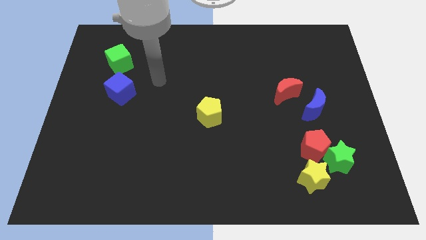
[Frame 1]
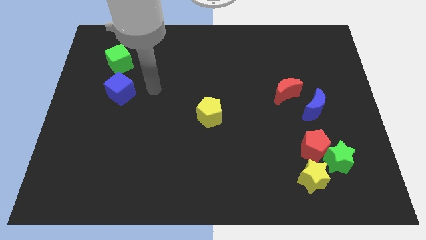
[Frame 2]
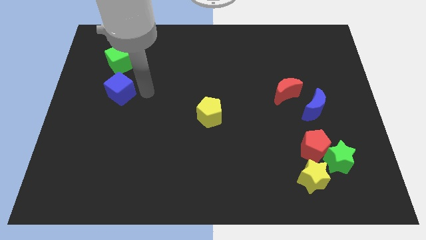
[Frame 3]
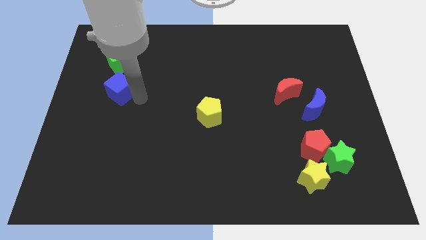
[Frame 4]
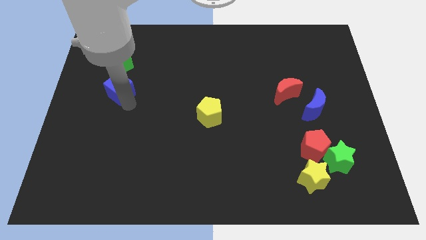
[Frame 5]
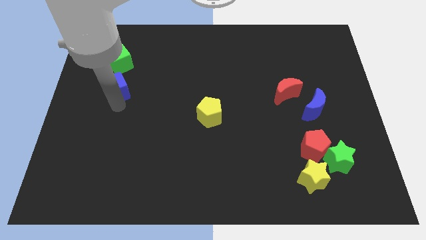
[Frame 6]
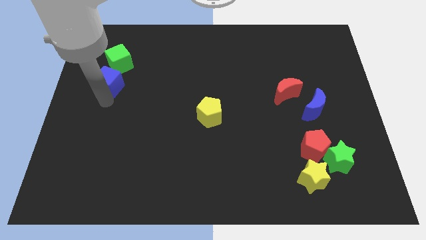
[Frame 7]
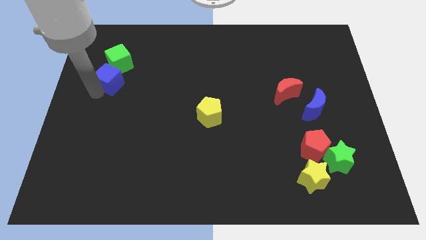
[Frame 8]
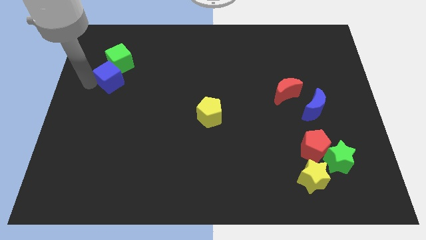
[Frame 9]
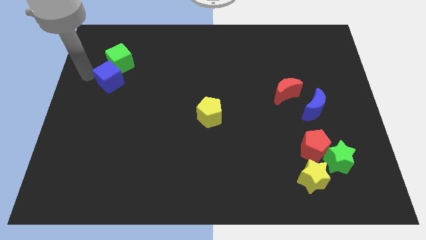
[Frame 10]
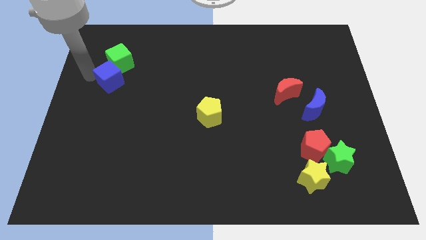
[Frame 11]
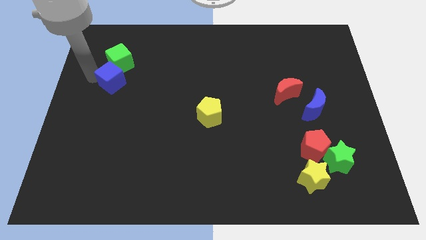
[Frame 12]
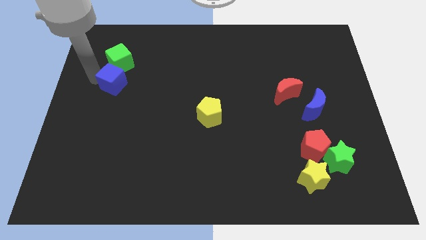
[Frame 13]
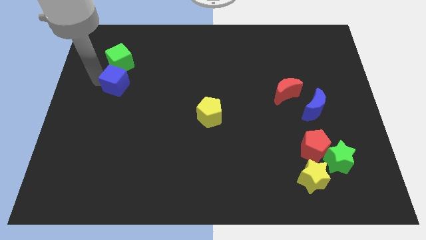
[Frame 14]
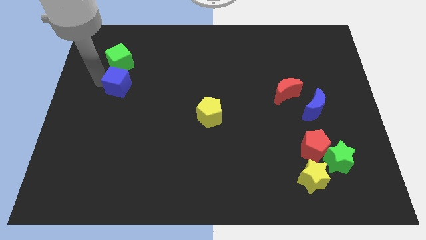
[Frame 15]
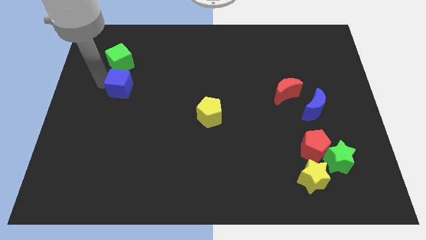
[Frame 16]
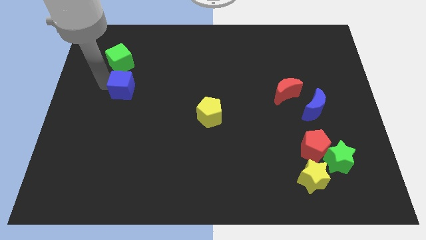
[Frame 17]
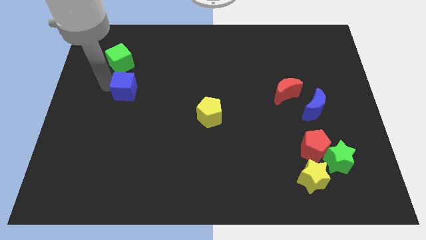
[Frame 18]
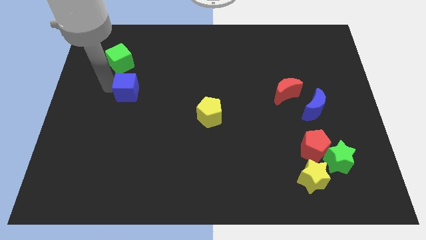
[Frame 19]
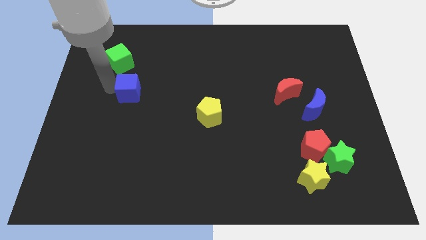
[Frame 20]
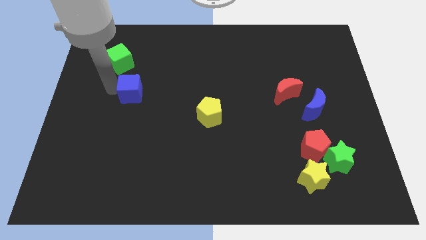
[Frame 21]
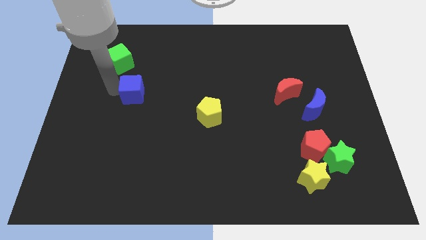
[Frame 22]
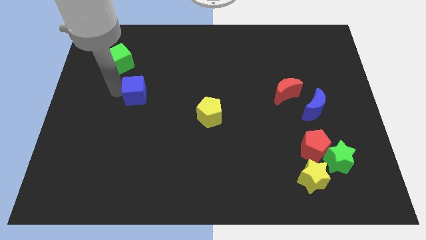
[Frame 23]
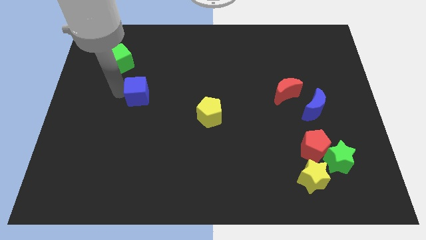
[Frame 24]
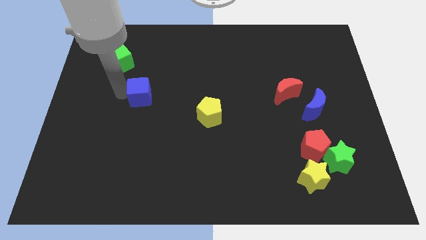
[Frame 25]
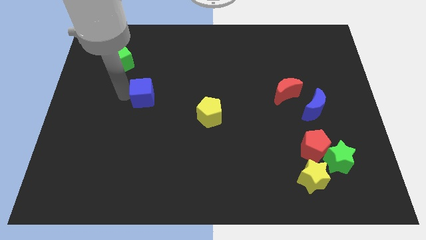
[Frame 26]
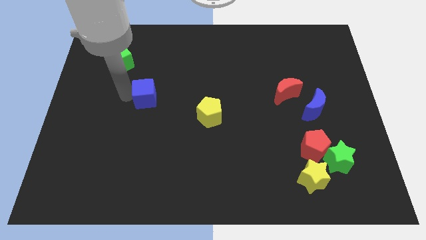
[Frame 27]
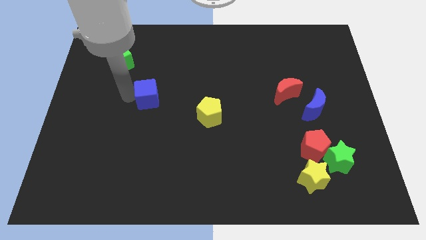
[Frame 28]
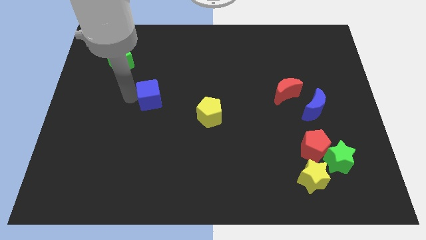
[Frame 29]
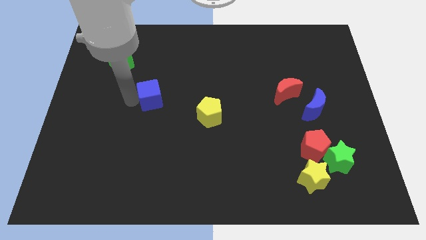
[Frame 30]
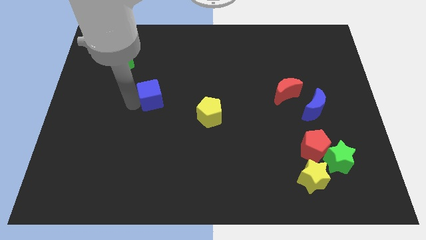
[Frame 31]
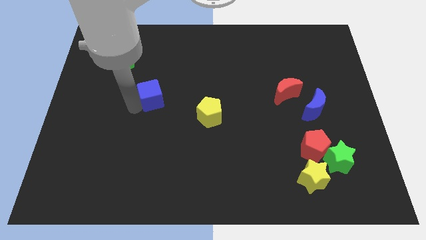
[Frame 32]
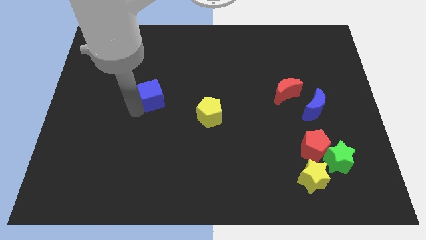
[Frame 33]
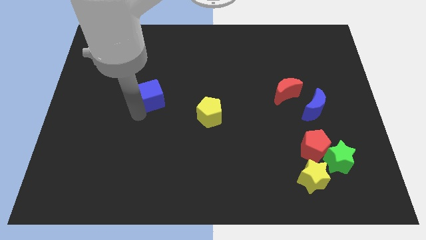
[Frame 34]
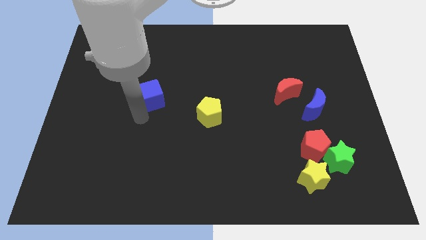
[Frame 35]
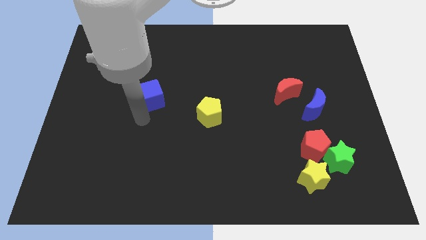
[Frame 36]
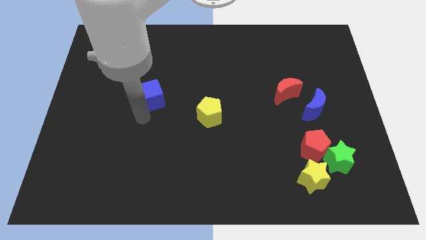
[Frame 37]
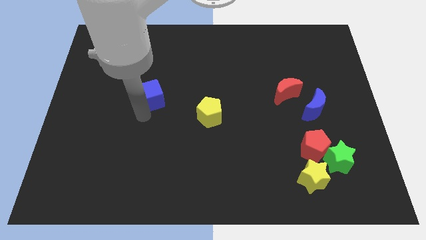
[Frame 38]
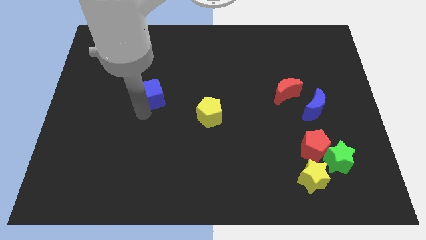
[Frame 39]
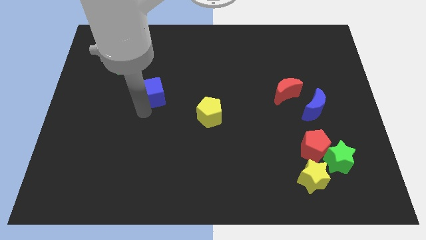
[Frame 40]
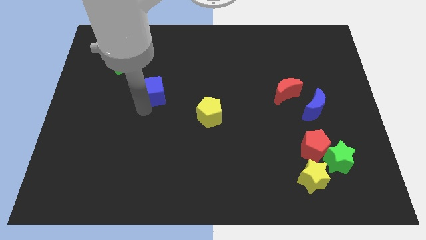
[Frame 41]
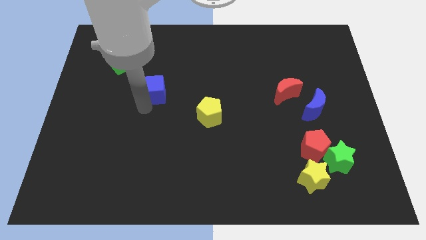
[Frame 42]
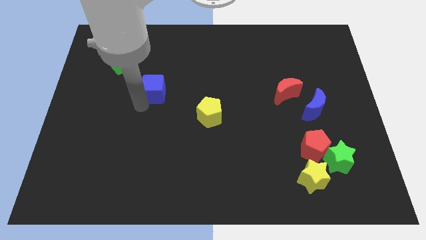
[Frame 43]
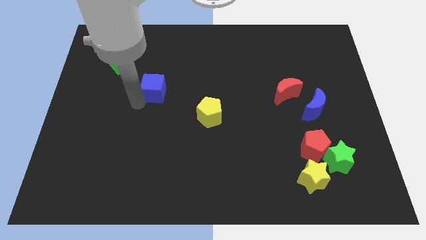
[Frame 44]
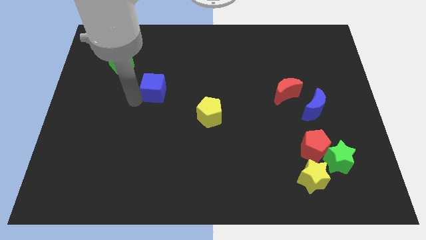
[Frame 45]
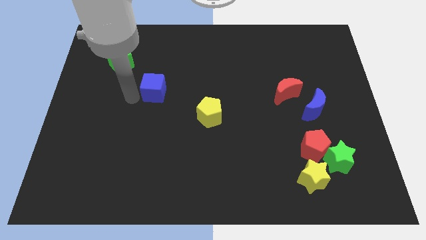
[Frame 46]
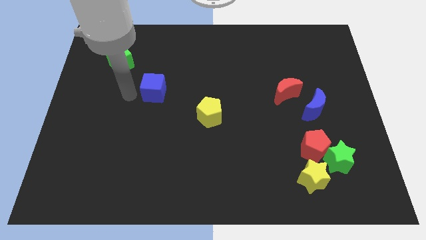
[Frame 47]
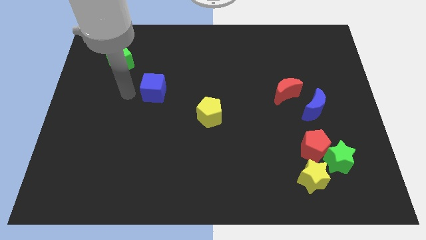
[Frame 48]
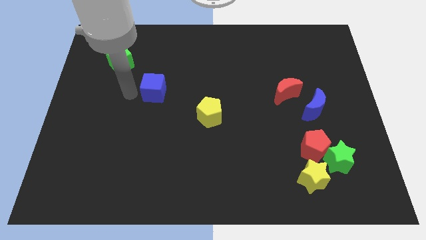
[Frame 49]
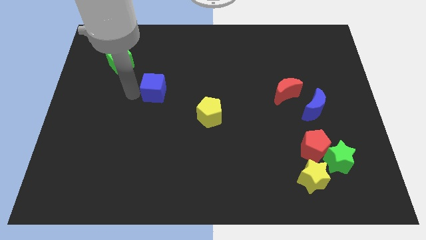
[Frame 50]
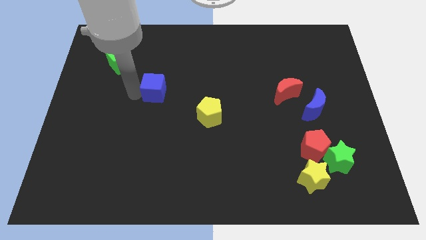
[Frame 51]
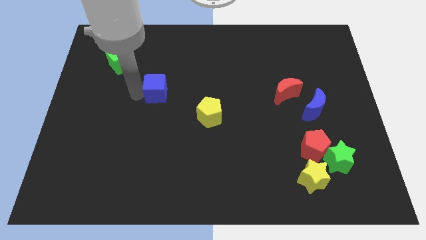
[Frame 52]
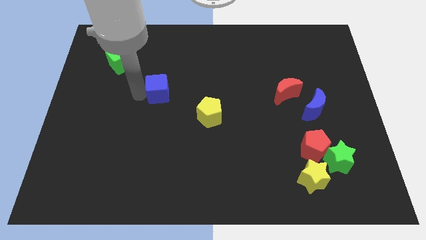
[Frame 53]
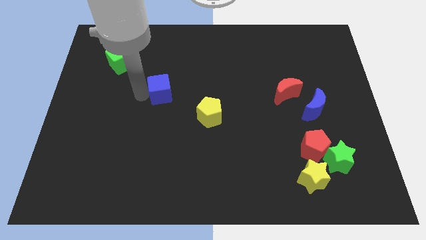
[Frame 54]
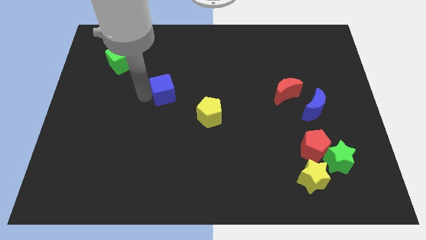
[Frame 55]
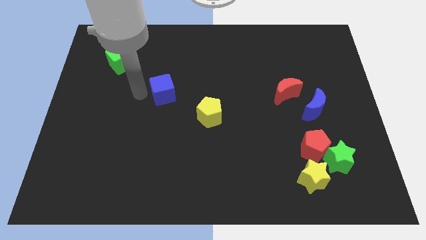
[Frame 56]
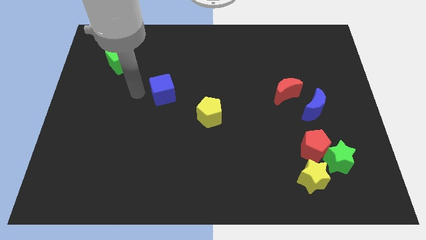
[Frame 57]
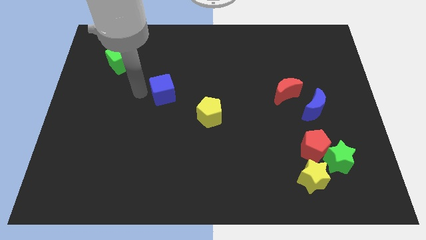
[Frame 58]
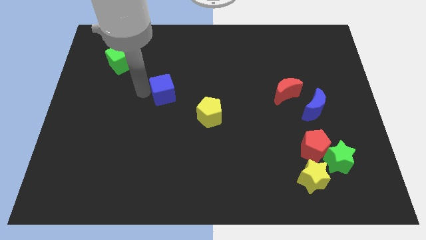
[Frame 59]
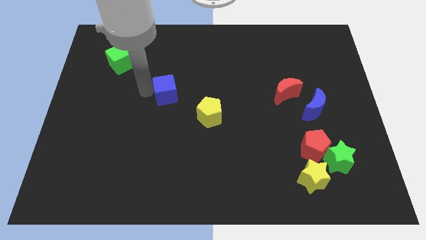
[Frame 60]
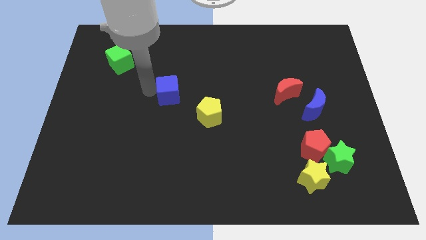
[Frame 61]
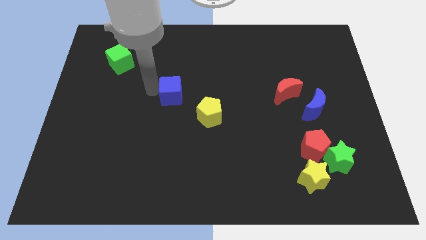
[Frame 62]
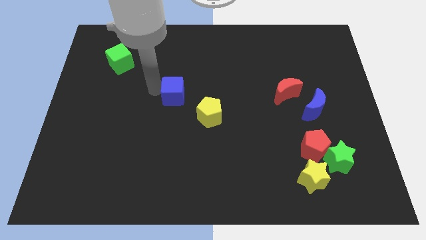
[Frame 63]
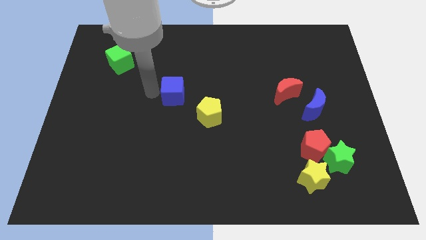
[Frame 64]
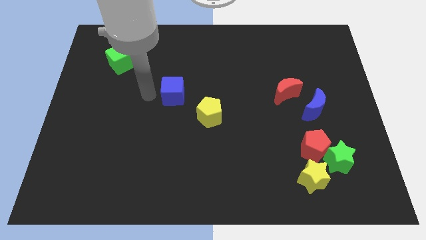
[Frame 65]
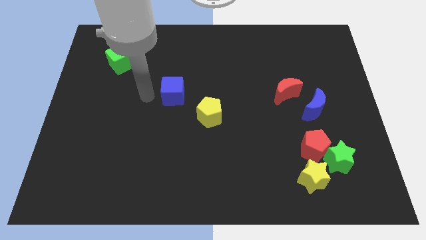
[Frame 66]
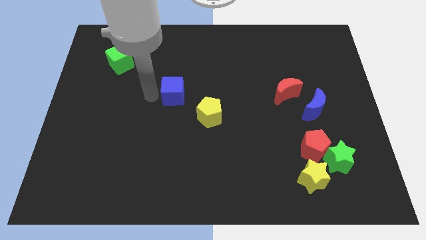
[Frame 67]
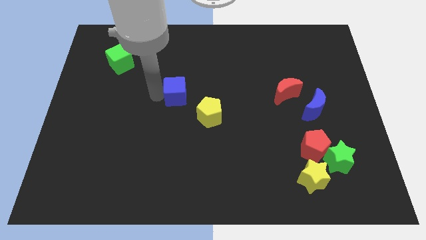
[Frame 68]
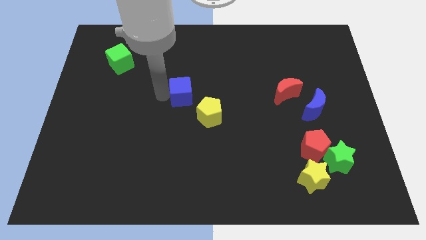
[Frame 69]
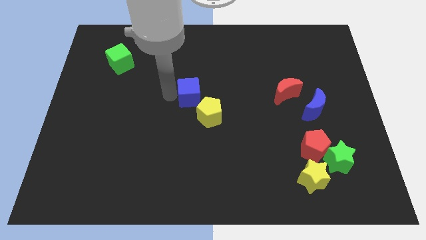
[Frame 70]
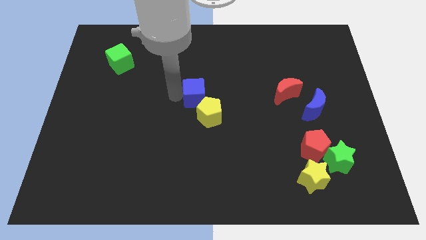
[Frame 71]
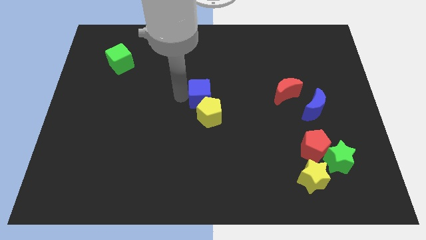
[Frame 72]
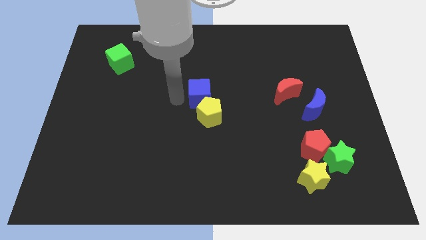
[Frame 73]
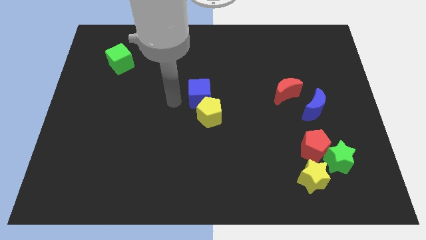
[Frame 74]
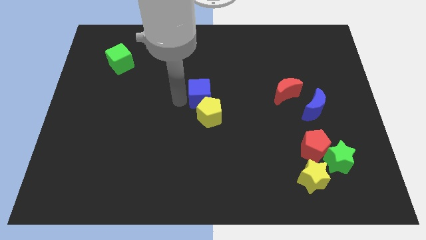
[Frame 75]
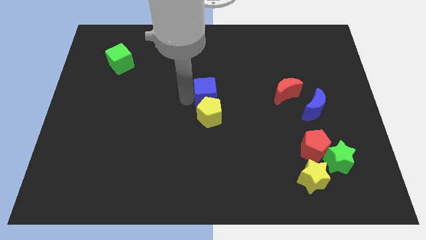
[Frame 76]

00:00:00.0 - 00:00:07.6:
slide the blue cube to the right

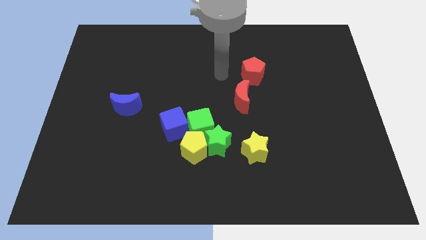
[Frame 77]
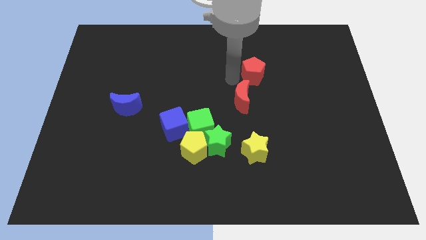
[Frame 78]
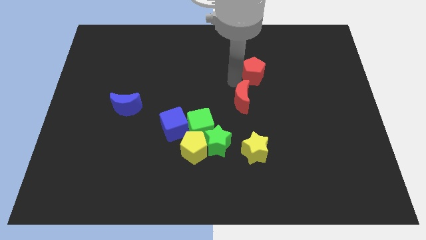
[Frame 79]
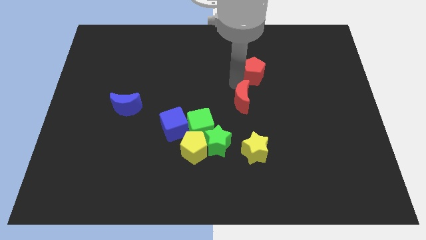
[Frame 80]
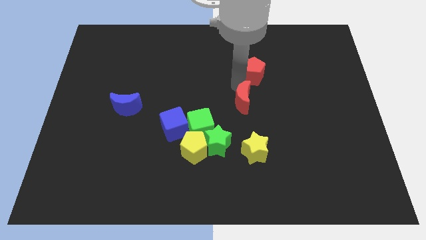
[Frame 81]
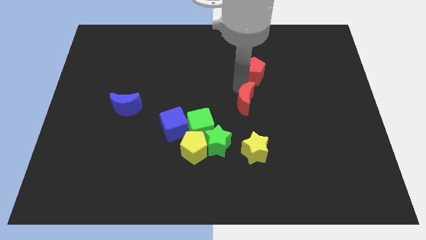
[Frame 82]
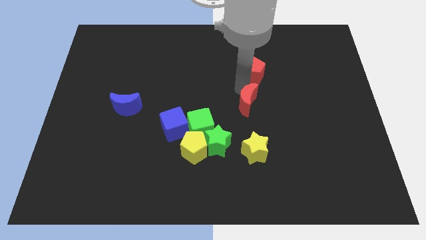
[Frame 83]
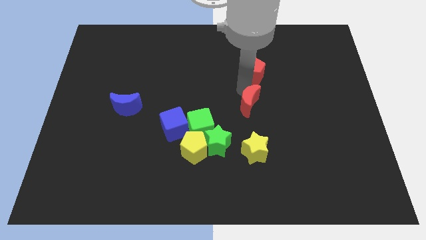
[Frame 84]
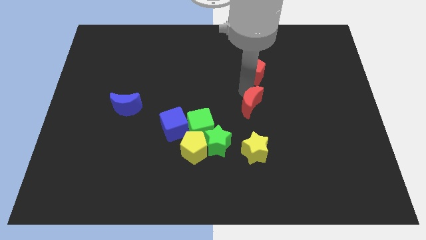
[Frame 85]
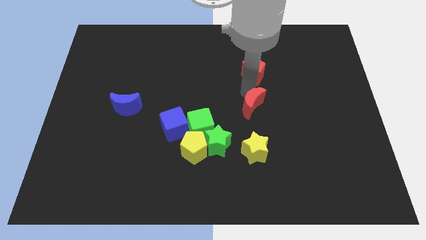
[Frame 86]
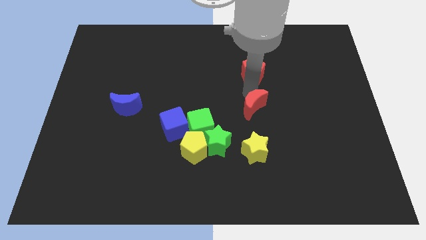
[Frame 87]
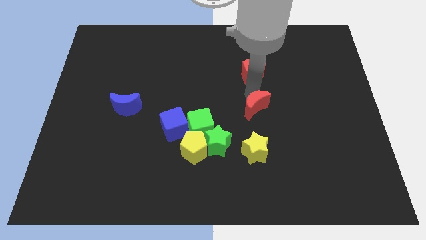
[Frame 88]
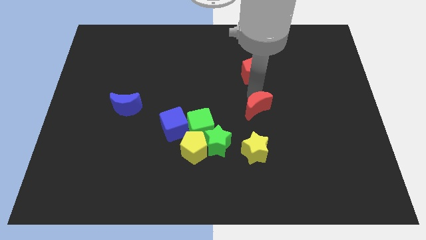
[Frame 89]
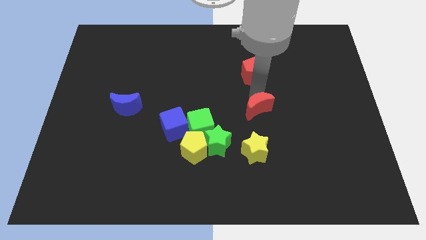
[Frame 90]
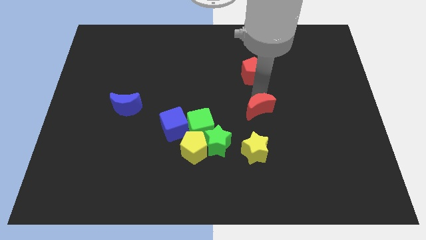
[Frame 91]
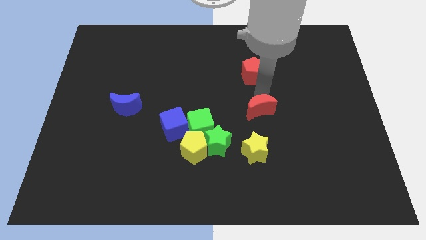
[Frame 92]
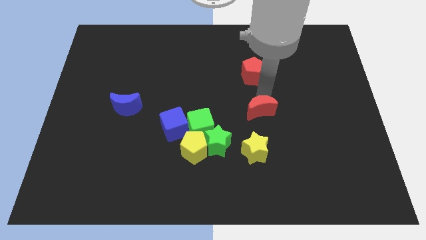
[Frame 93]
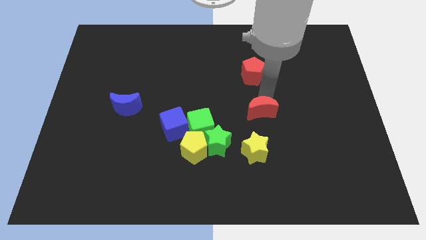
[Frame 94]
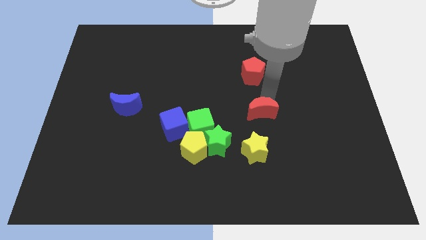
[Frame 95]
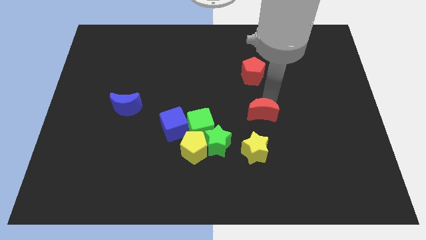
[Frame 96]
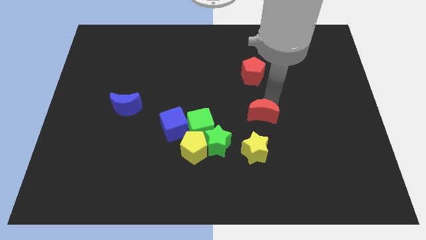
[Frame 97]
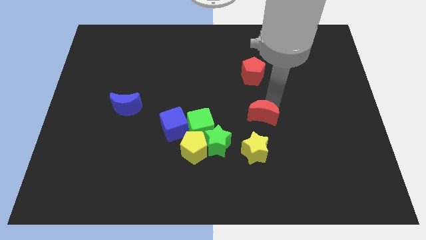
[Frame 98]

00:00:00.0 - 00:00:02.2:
slide the red moon down and then to the right a little
